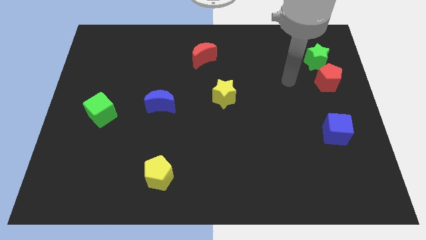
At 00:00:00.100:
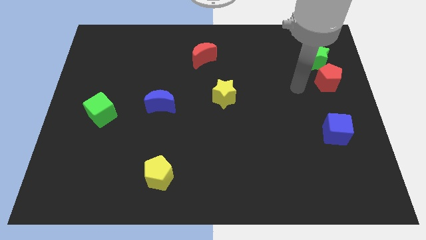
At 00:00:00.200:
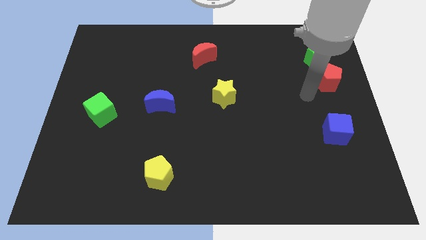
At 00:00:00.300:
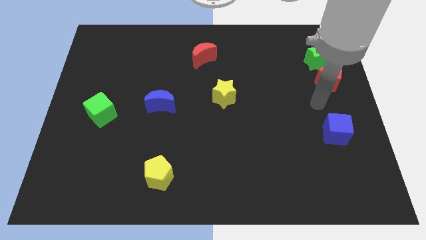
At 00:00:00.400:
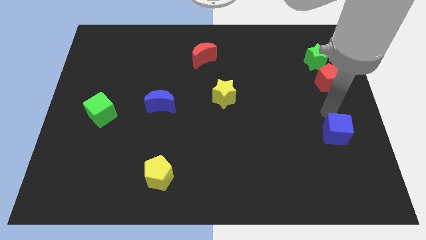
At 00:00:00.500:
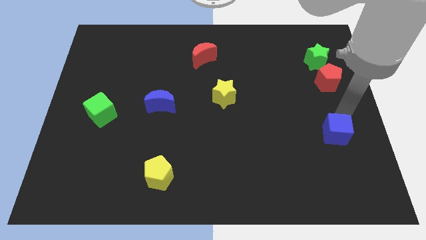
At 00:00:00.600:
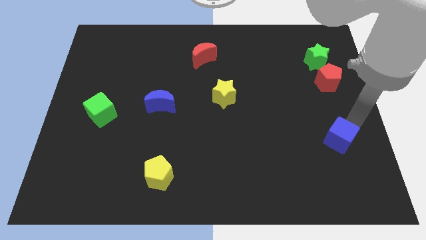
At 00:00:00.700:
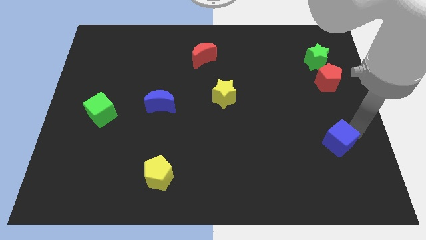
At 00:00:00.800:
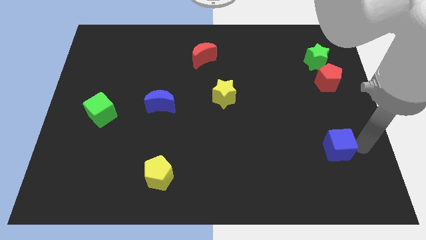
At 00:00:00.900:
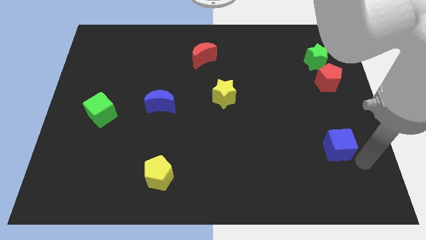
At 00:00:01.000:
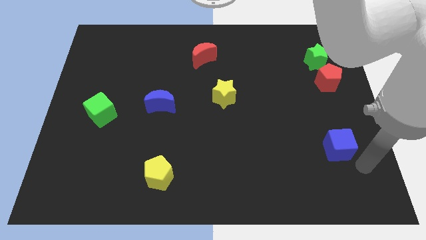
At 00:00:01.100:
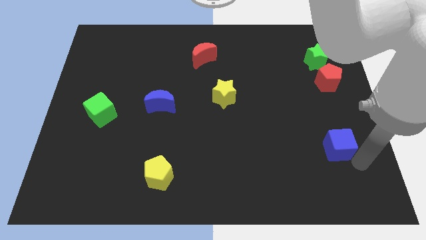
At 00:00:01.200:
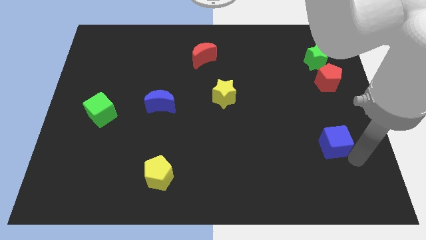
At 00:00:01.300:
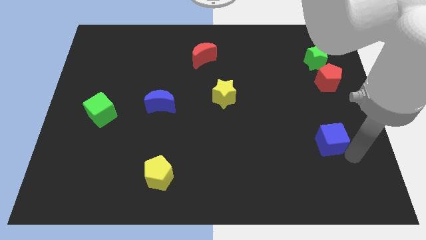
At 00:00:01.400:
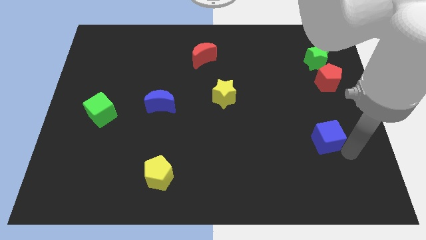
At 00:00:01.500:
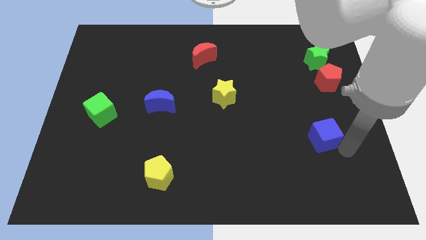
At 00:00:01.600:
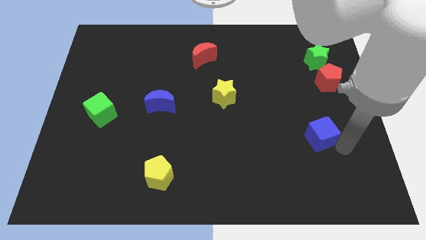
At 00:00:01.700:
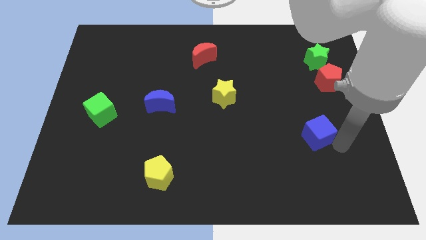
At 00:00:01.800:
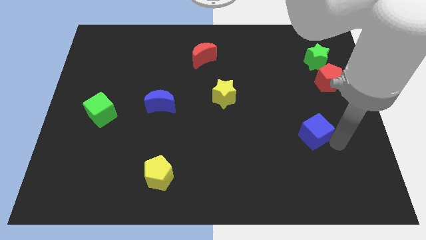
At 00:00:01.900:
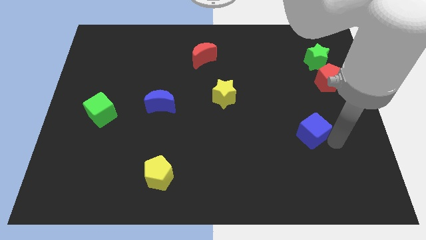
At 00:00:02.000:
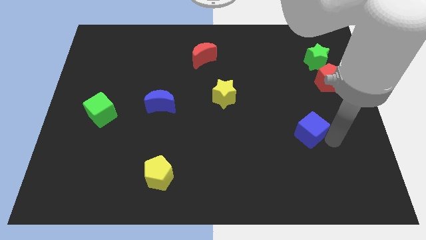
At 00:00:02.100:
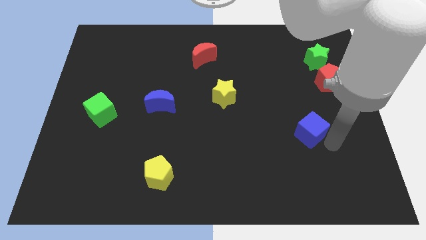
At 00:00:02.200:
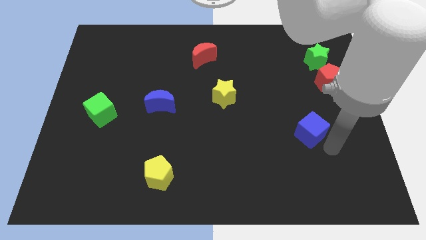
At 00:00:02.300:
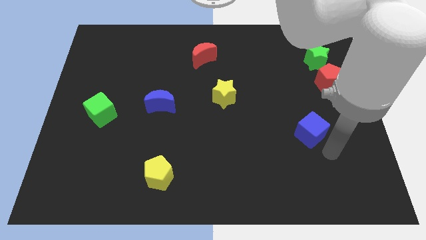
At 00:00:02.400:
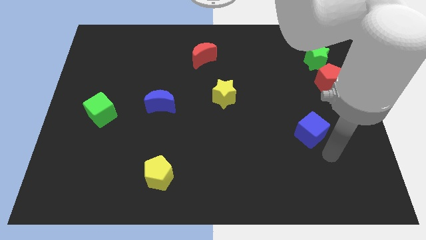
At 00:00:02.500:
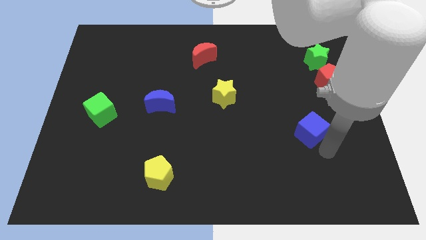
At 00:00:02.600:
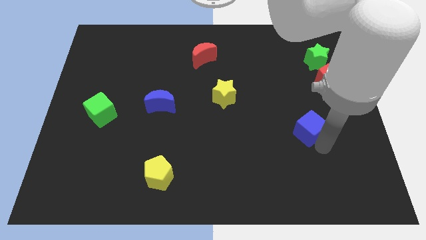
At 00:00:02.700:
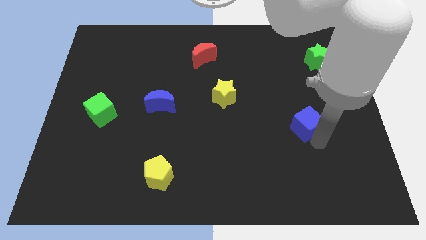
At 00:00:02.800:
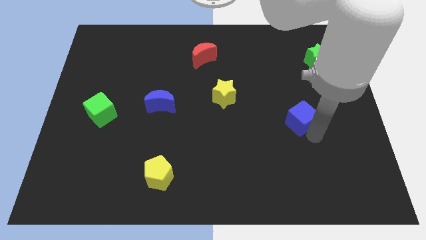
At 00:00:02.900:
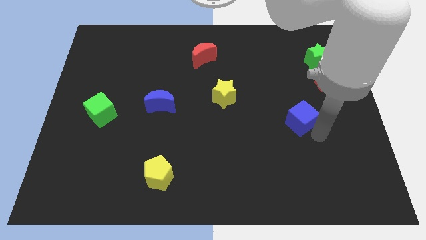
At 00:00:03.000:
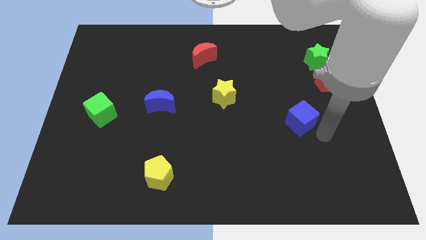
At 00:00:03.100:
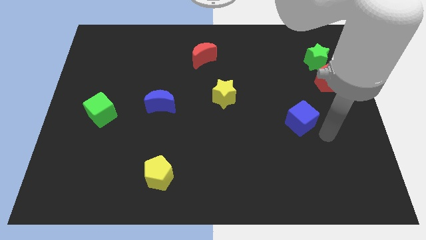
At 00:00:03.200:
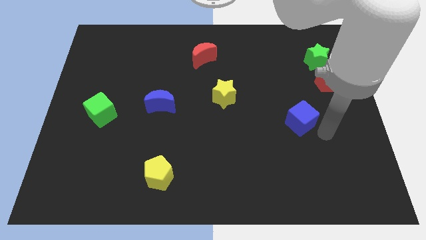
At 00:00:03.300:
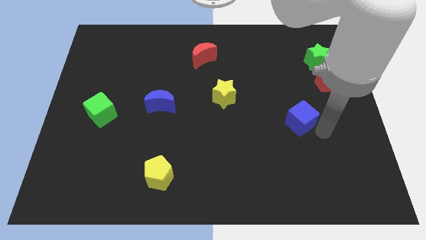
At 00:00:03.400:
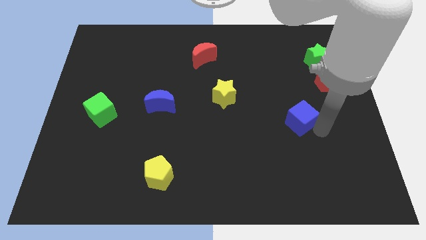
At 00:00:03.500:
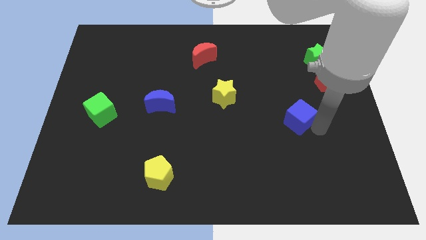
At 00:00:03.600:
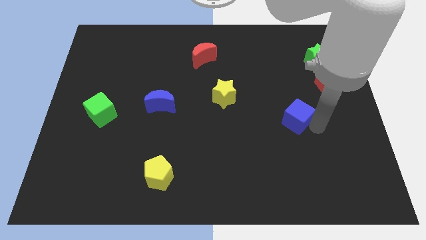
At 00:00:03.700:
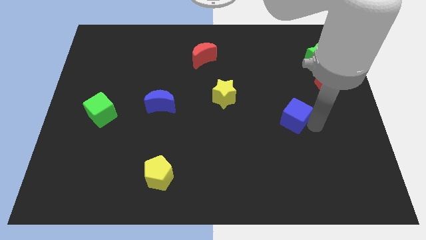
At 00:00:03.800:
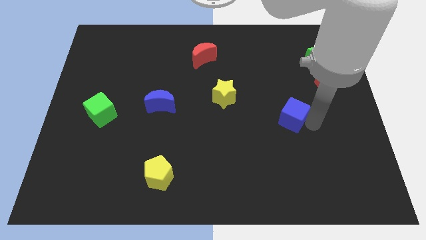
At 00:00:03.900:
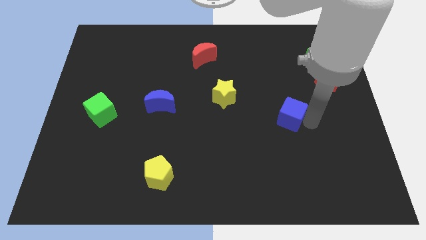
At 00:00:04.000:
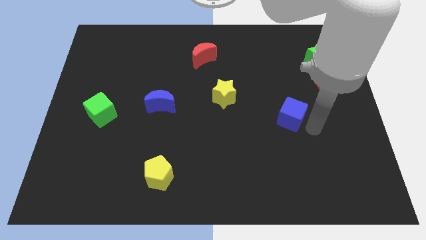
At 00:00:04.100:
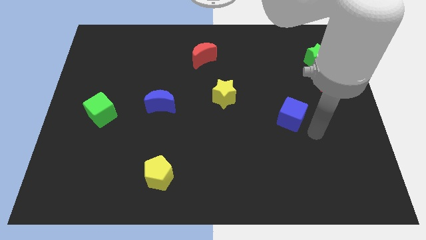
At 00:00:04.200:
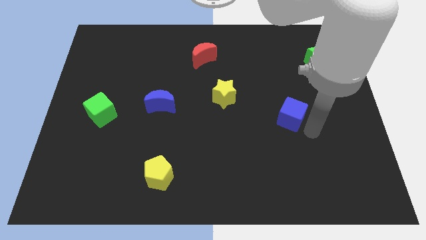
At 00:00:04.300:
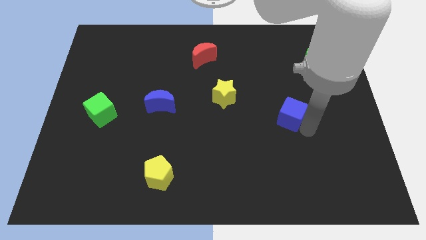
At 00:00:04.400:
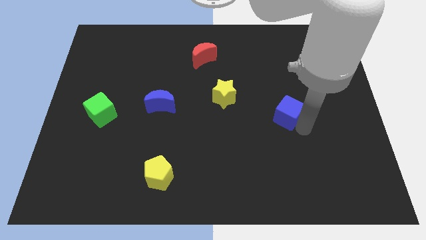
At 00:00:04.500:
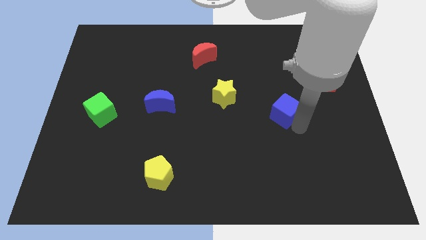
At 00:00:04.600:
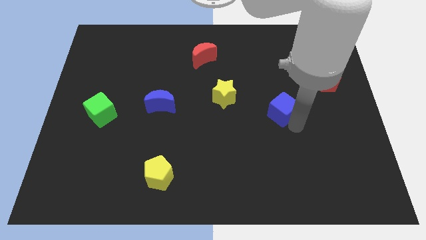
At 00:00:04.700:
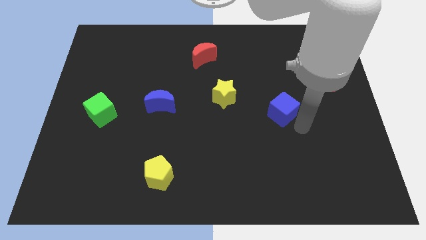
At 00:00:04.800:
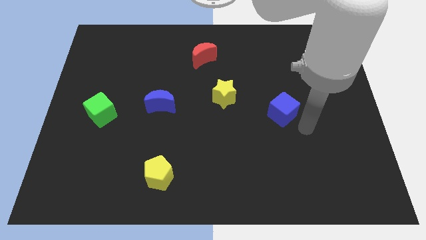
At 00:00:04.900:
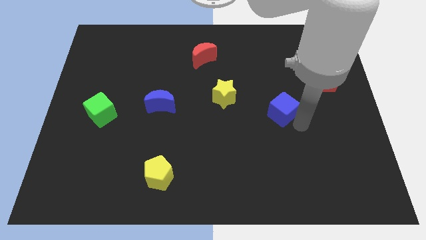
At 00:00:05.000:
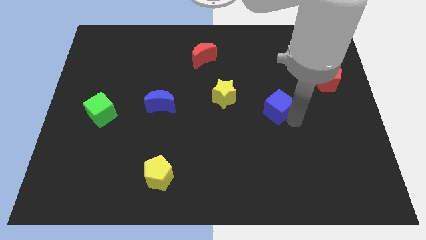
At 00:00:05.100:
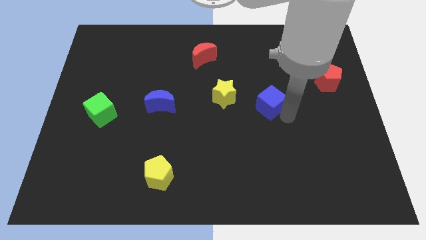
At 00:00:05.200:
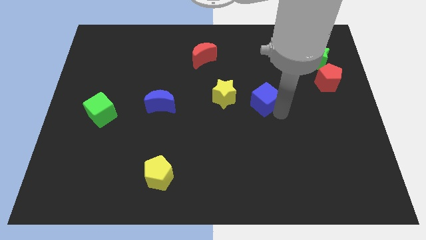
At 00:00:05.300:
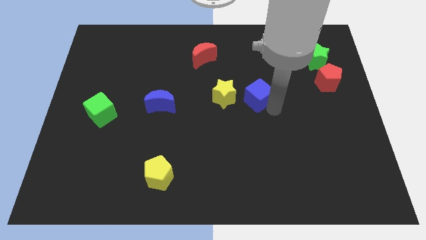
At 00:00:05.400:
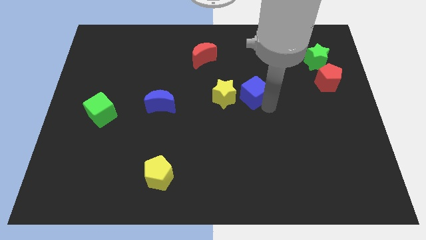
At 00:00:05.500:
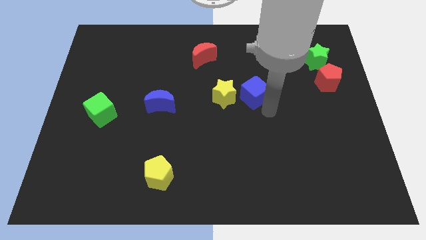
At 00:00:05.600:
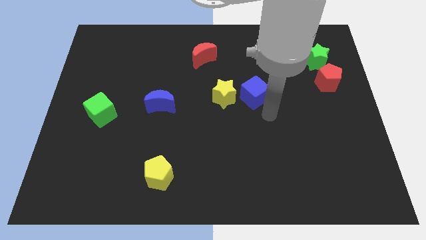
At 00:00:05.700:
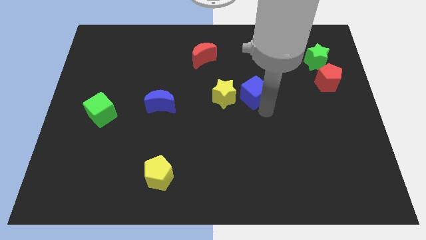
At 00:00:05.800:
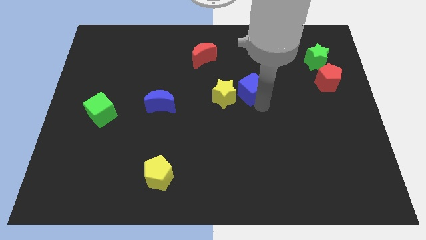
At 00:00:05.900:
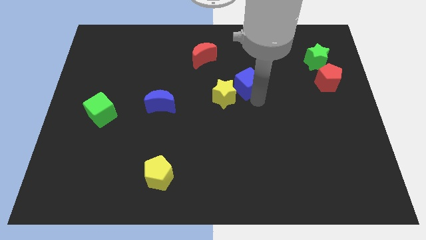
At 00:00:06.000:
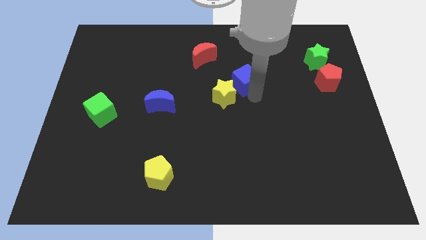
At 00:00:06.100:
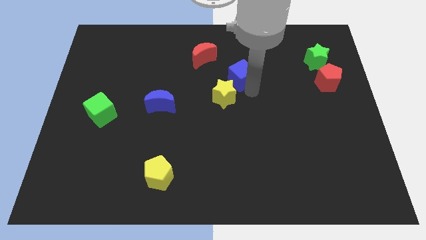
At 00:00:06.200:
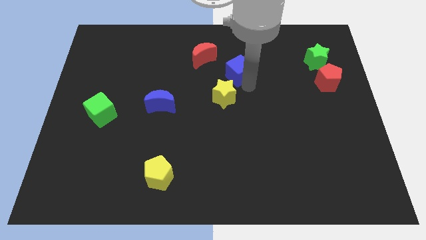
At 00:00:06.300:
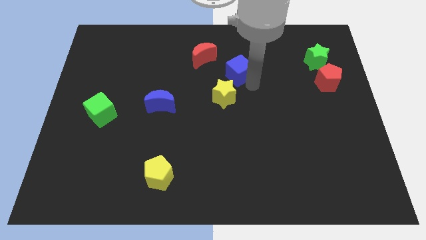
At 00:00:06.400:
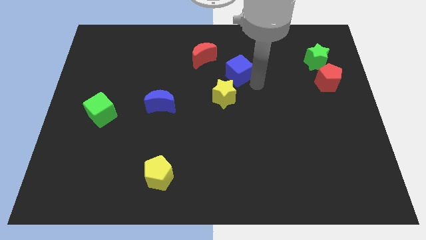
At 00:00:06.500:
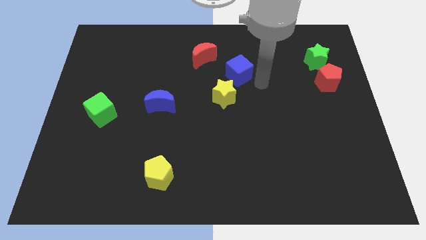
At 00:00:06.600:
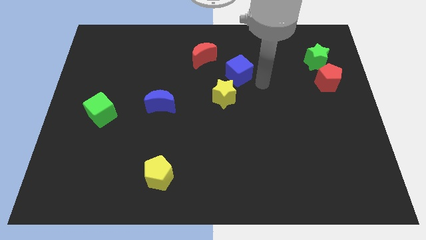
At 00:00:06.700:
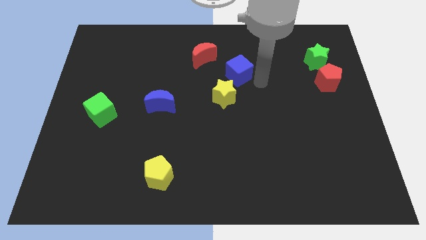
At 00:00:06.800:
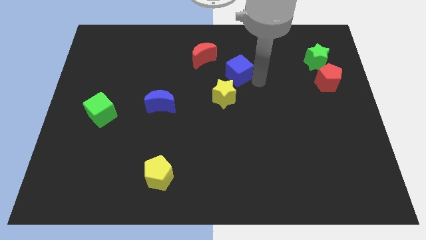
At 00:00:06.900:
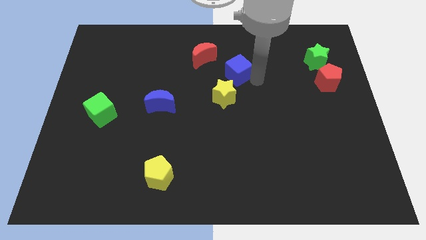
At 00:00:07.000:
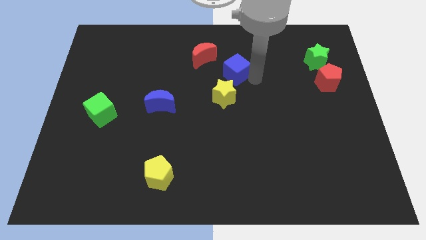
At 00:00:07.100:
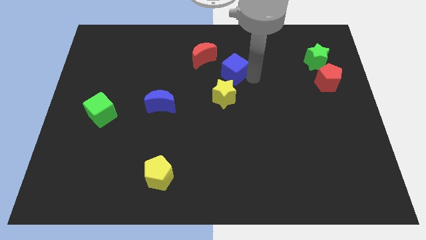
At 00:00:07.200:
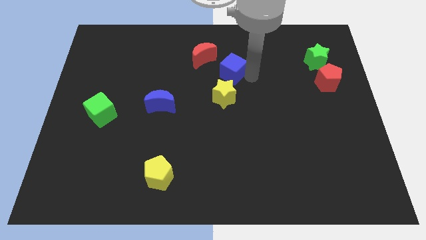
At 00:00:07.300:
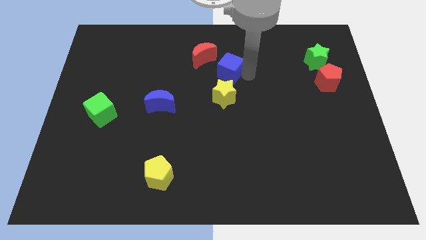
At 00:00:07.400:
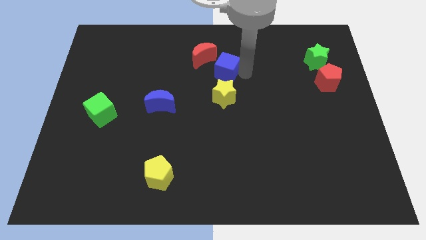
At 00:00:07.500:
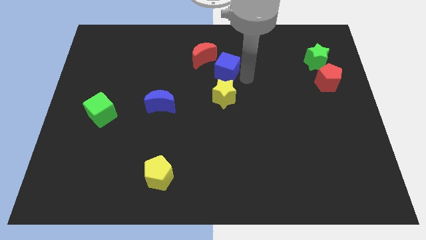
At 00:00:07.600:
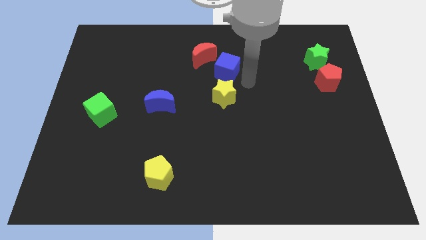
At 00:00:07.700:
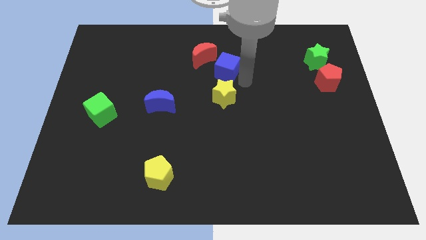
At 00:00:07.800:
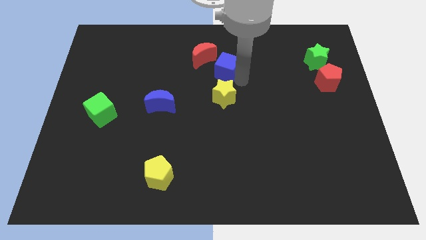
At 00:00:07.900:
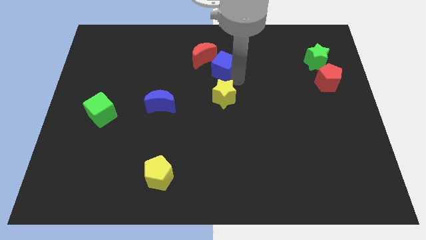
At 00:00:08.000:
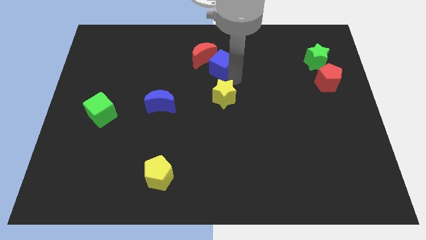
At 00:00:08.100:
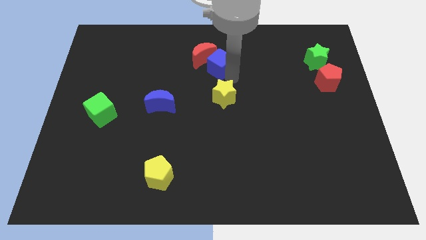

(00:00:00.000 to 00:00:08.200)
slide the blue cube to the red moon
